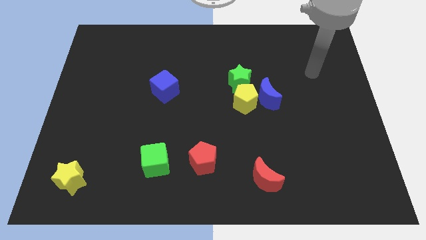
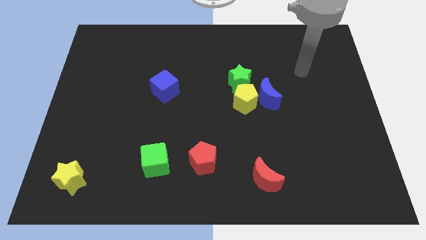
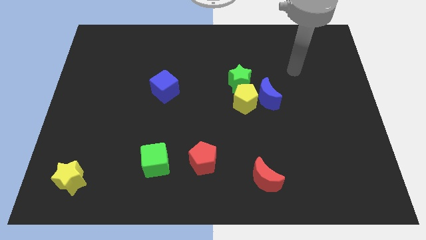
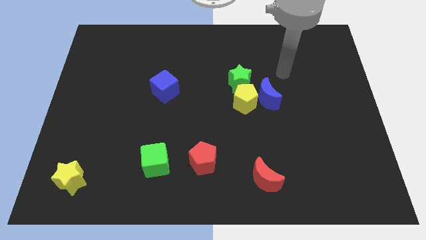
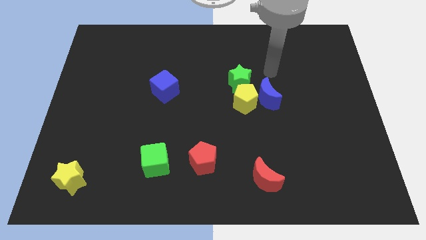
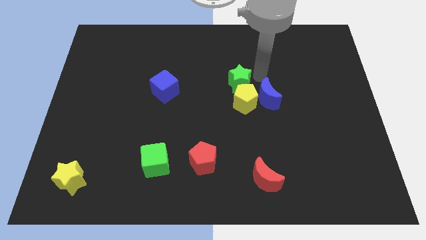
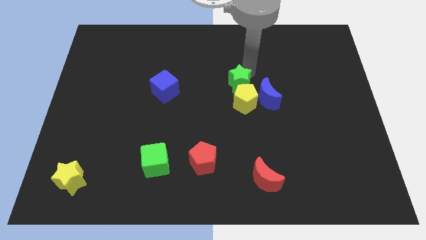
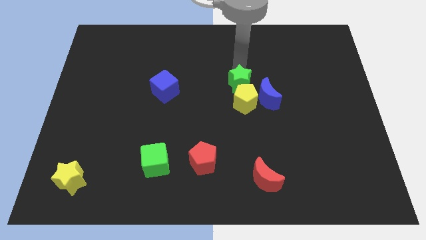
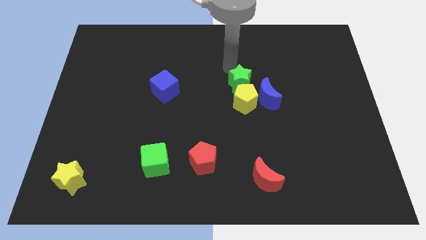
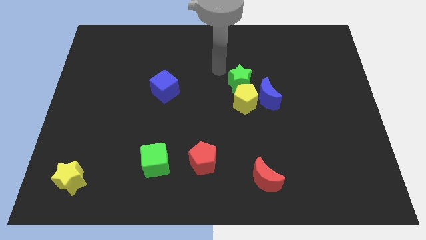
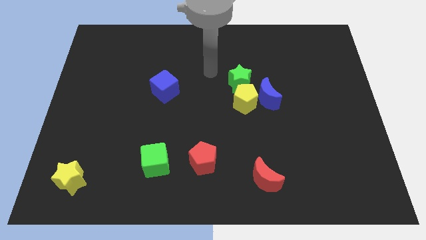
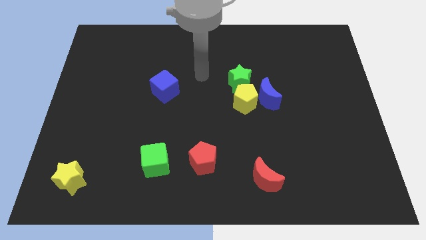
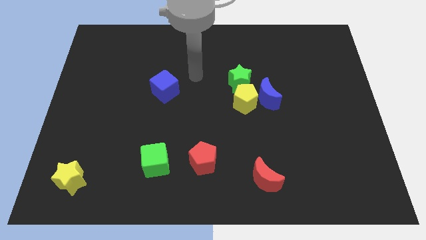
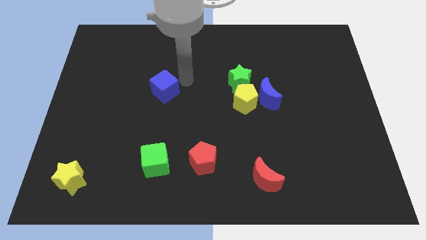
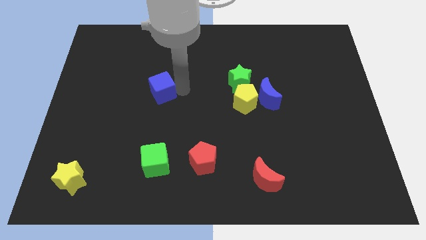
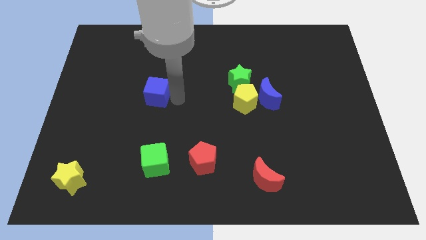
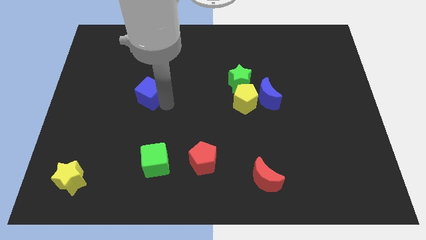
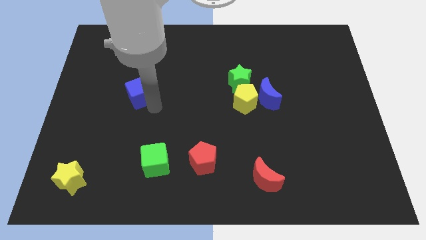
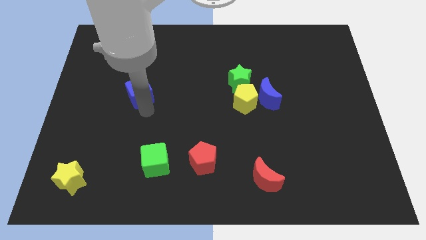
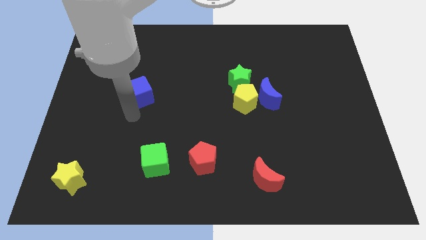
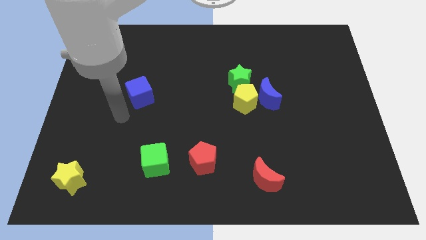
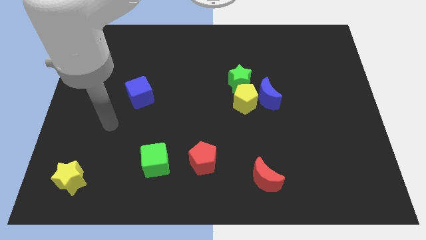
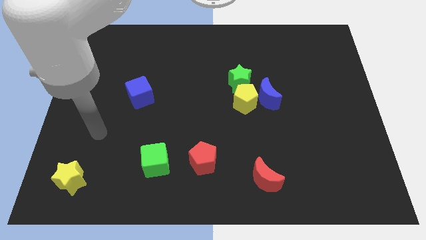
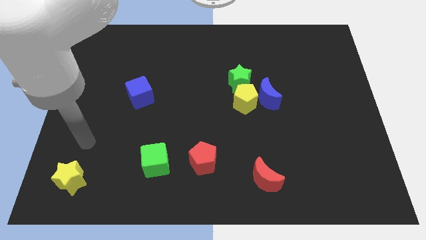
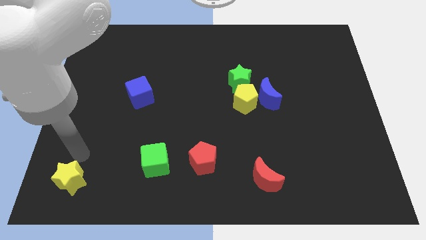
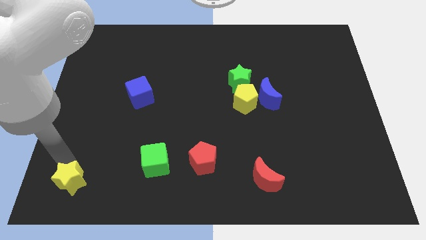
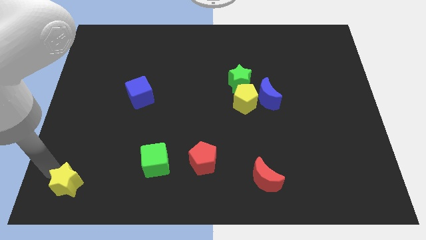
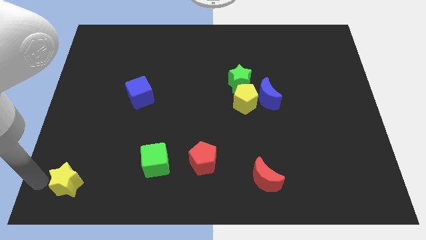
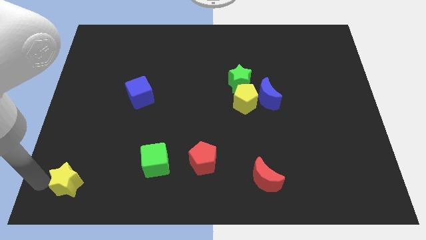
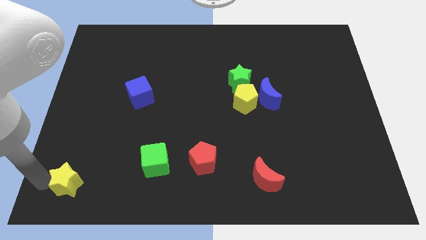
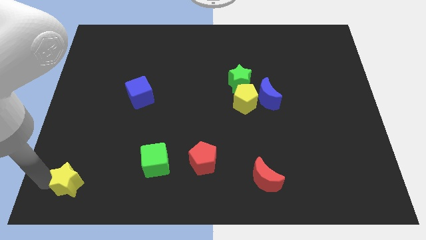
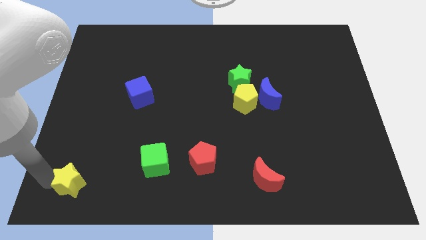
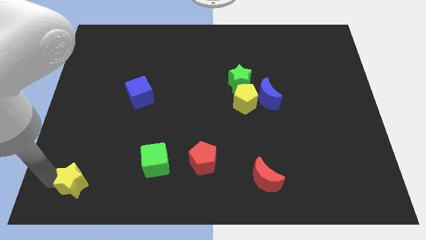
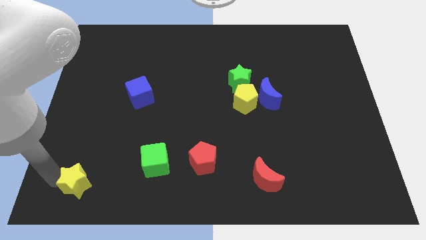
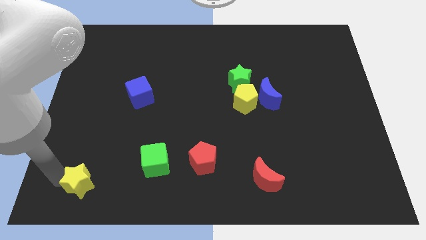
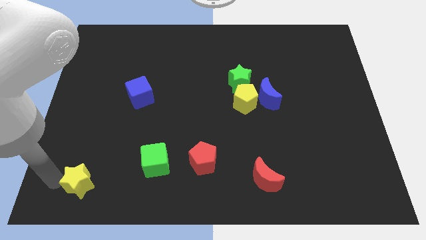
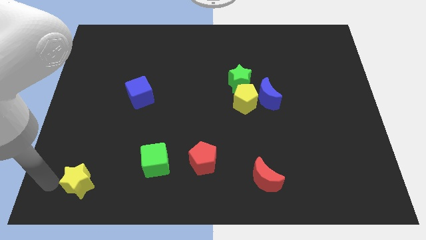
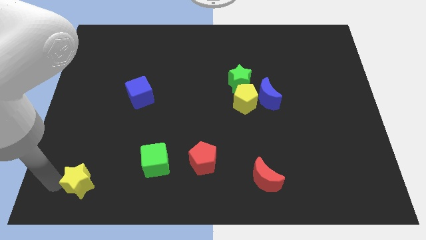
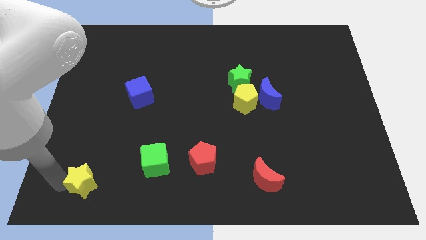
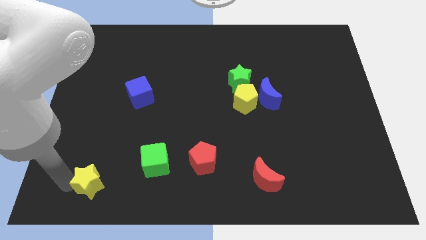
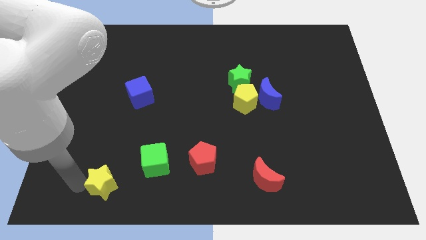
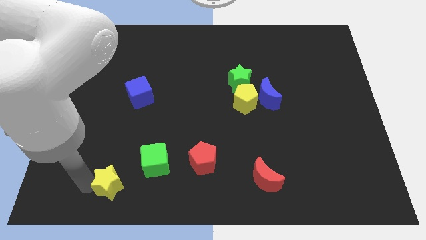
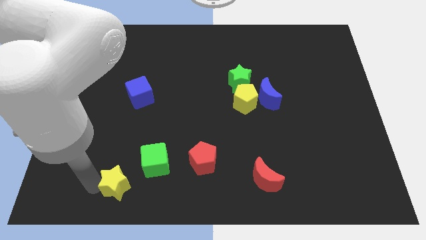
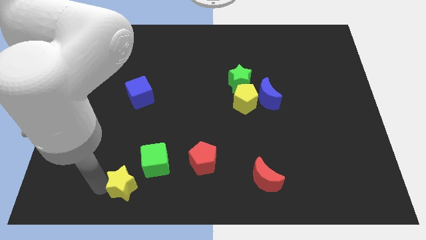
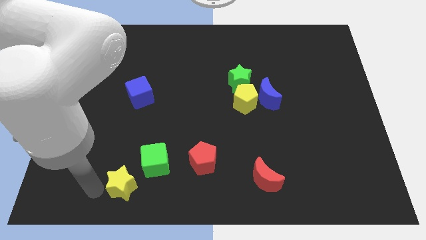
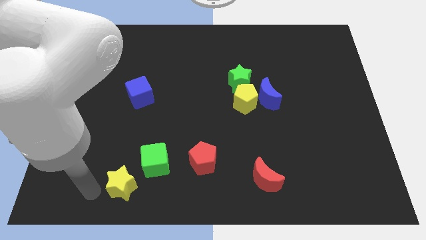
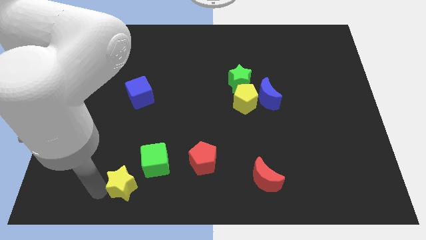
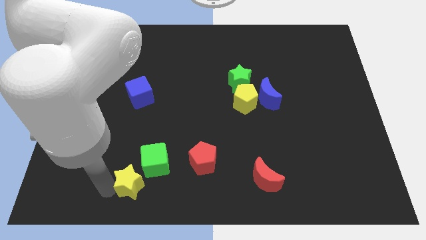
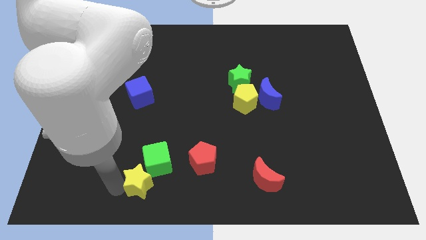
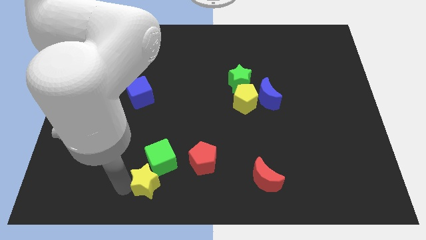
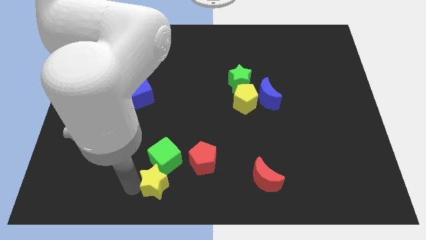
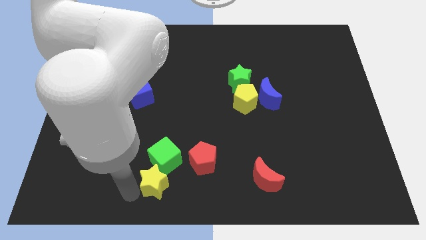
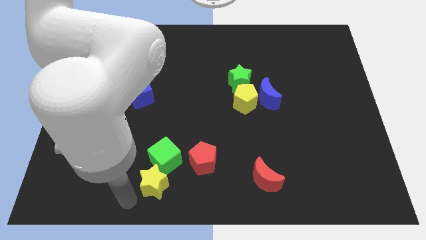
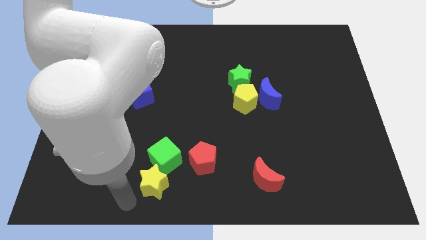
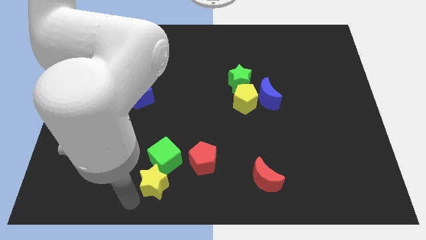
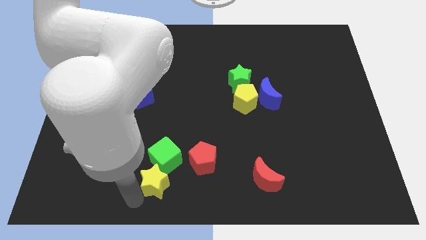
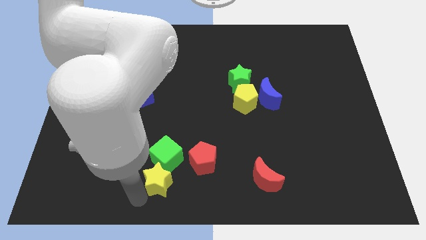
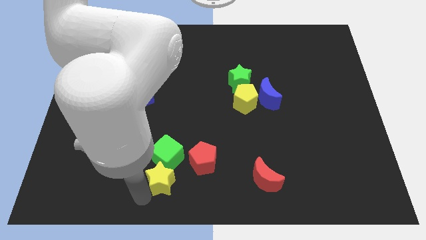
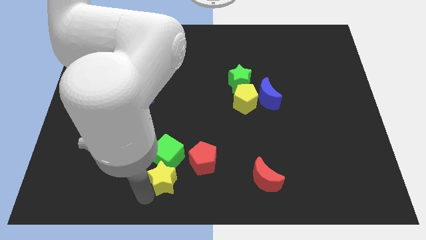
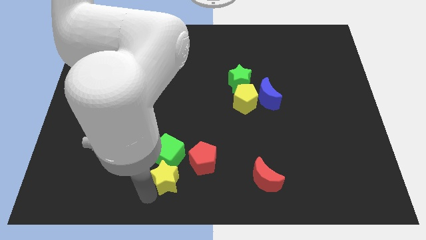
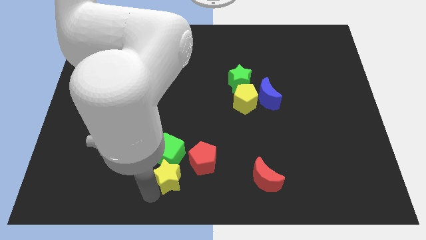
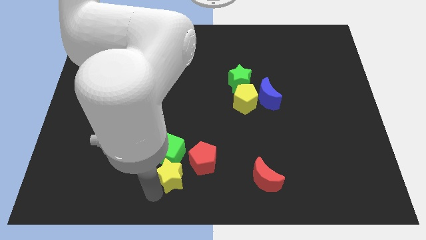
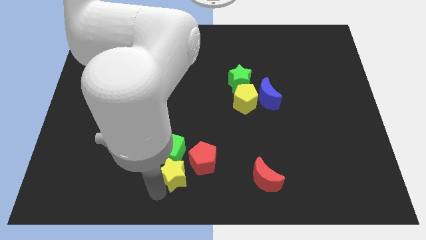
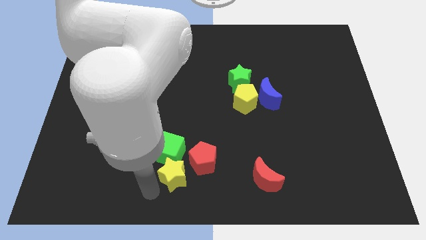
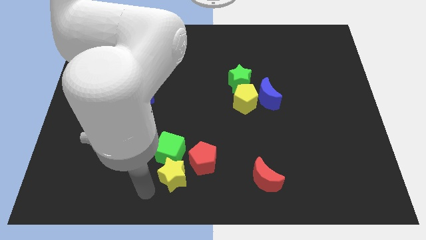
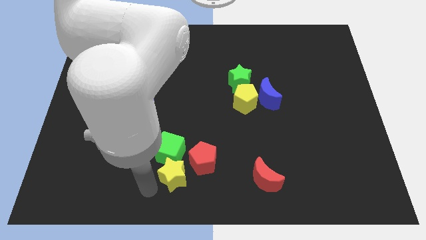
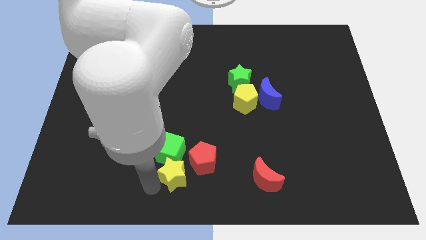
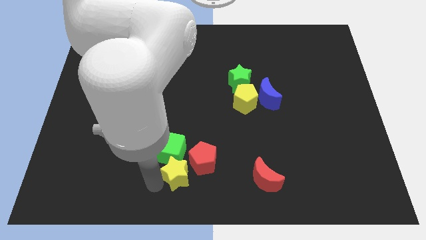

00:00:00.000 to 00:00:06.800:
put the yellow star close to the red pentagon

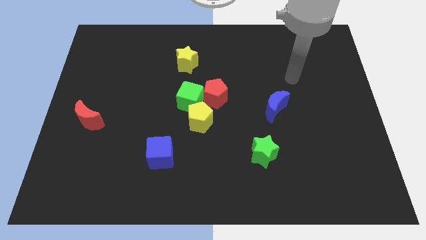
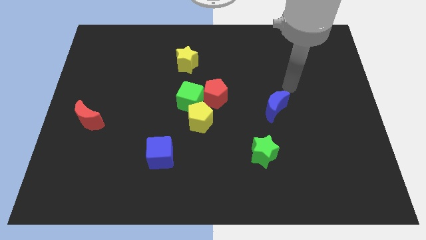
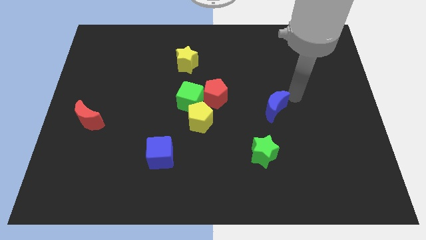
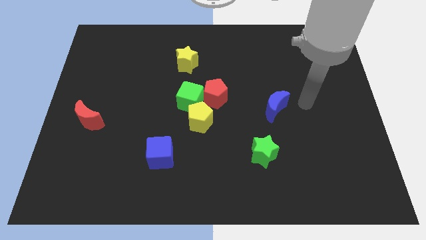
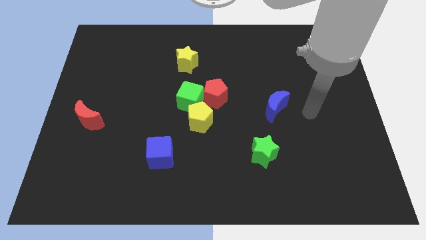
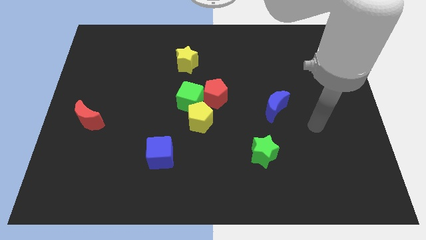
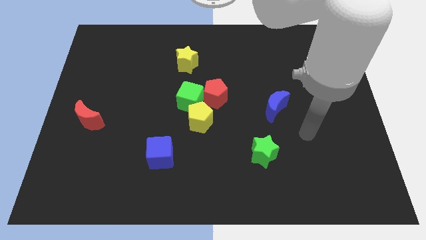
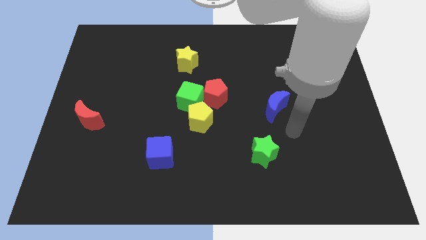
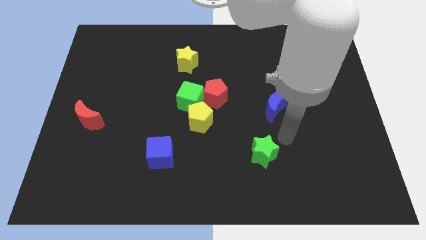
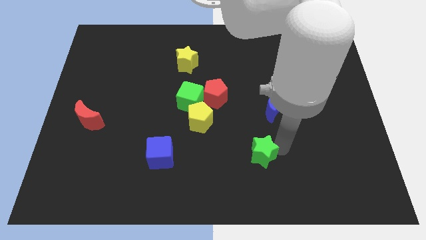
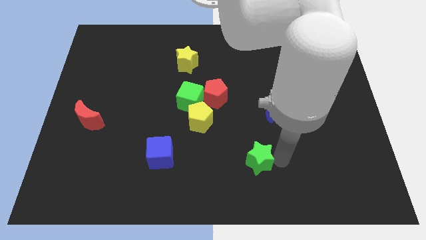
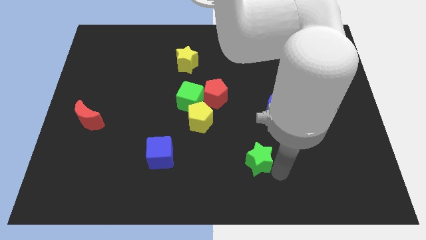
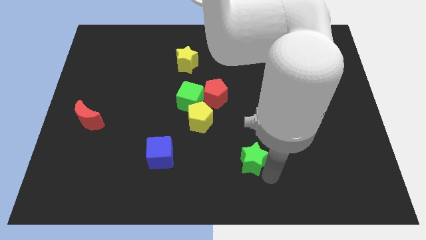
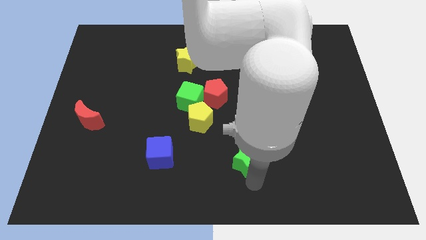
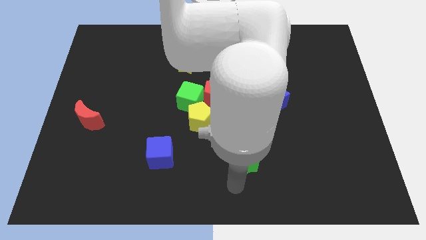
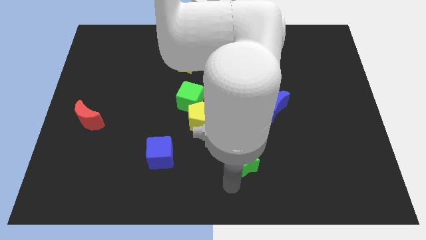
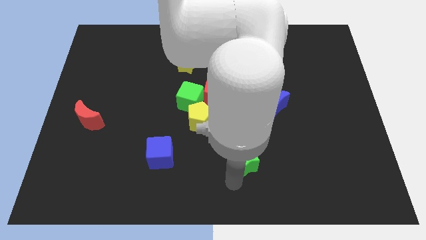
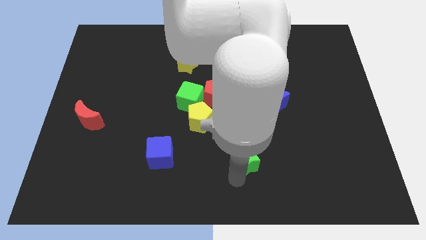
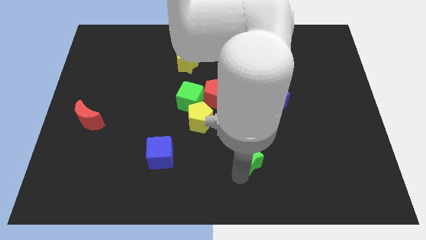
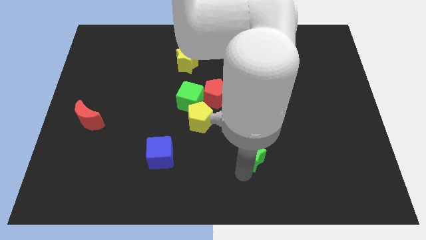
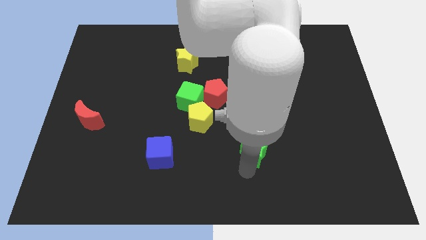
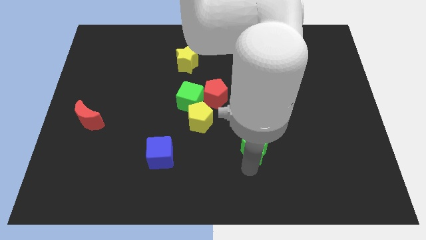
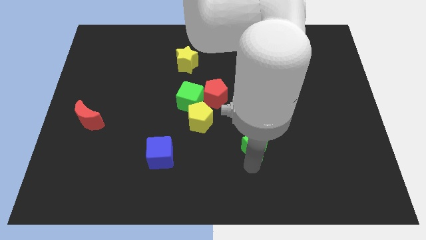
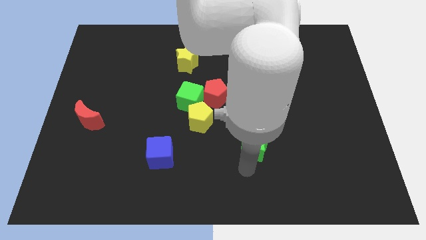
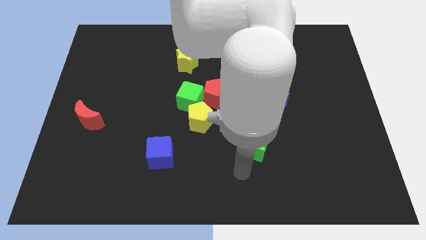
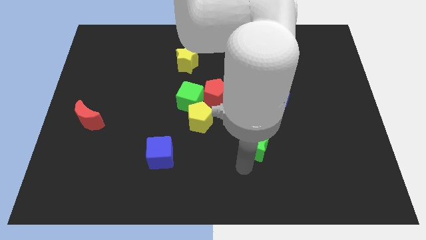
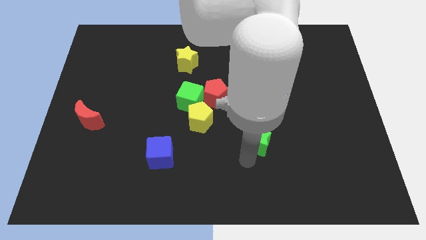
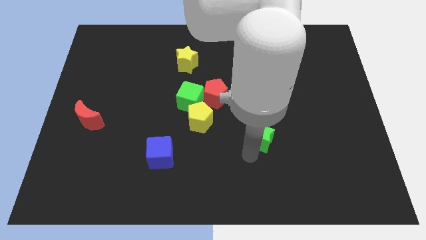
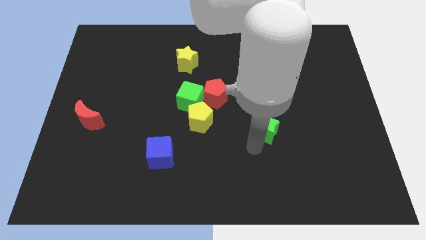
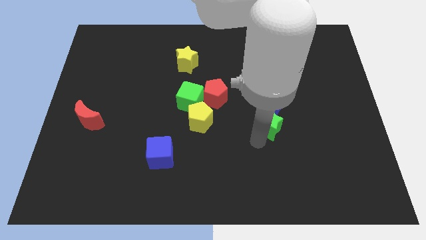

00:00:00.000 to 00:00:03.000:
push the green star towards the blue moon
